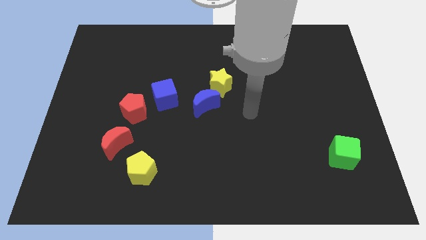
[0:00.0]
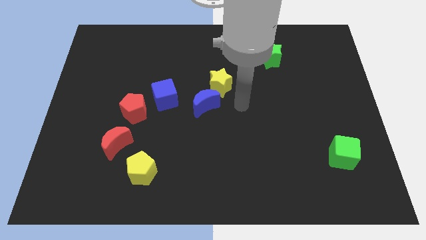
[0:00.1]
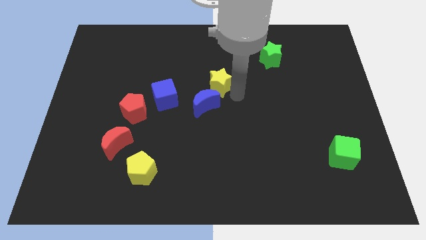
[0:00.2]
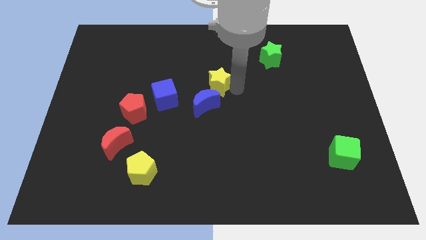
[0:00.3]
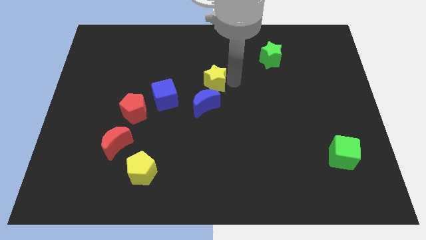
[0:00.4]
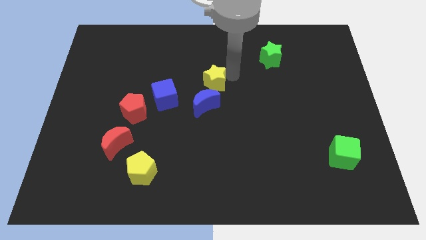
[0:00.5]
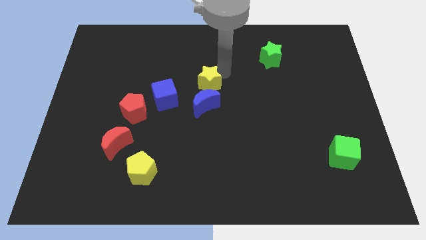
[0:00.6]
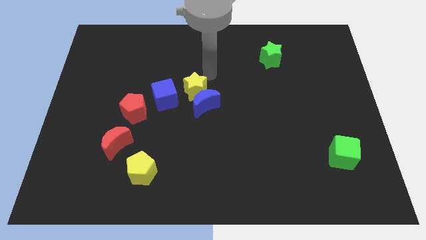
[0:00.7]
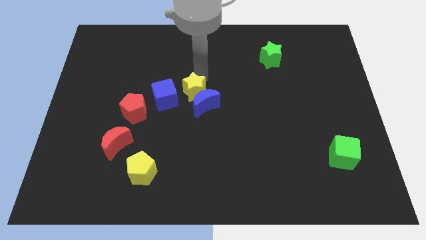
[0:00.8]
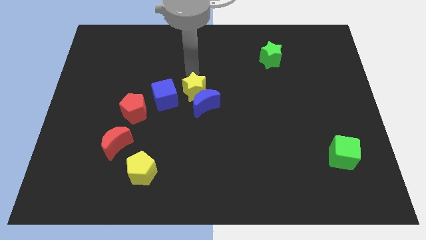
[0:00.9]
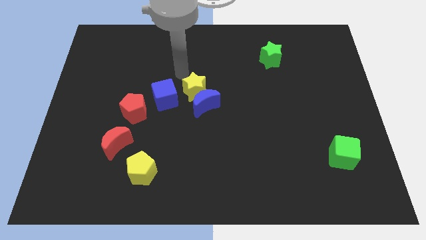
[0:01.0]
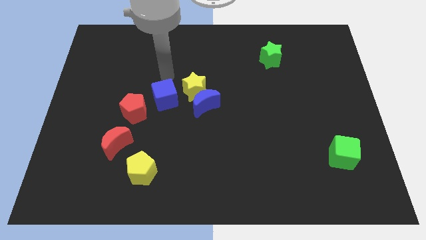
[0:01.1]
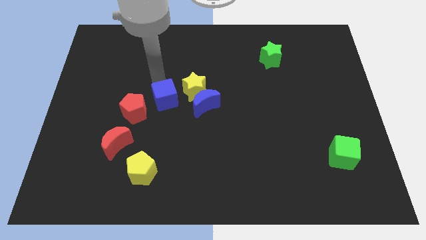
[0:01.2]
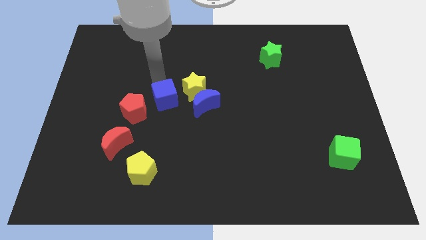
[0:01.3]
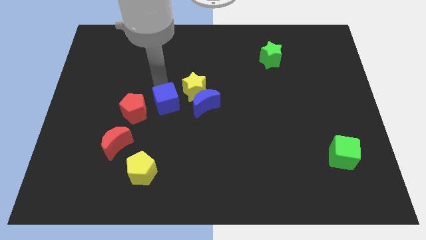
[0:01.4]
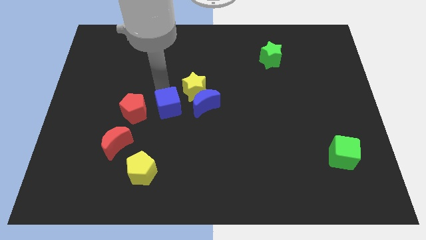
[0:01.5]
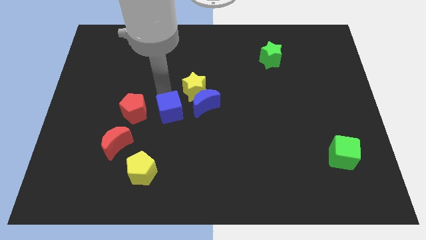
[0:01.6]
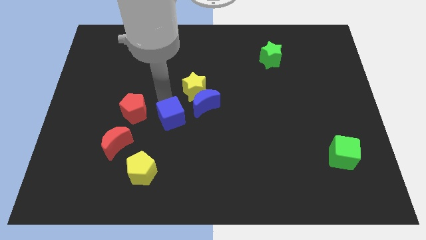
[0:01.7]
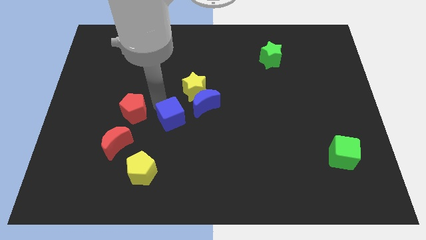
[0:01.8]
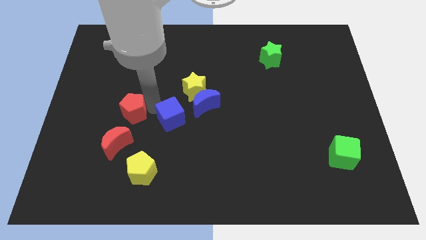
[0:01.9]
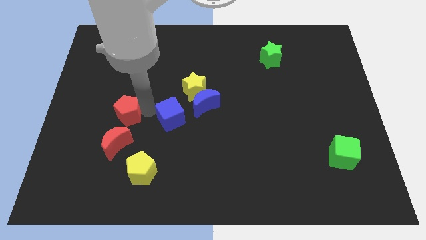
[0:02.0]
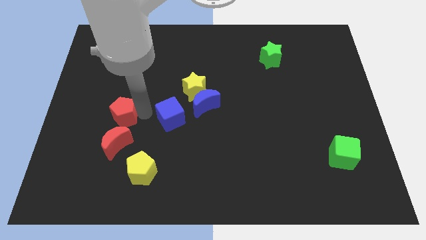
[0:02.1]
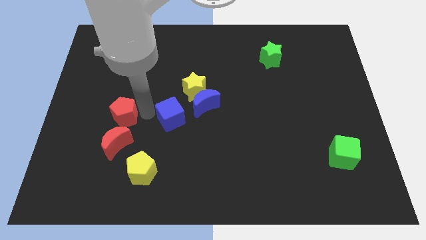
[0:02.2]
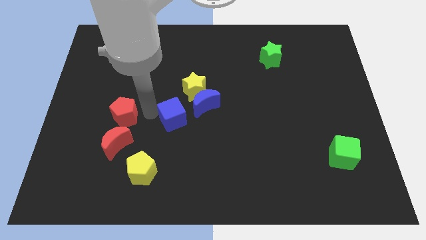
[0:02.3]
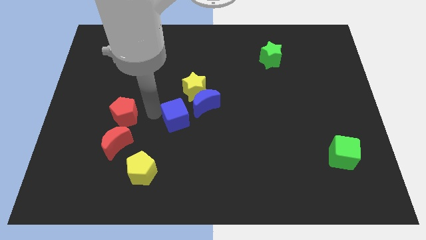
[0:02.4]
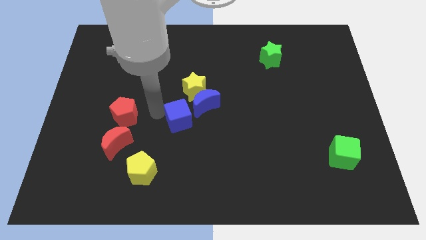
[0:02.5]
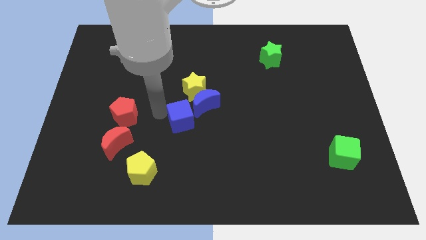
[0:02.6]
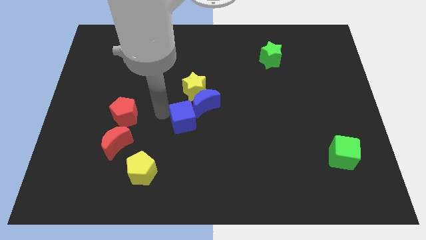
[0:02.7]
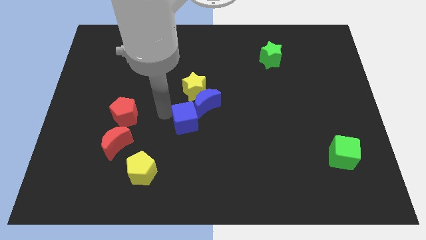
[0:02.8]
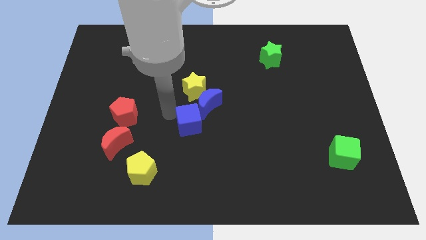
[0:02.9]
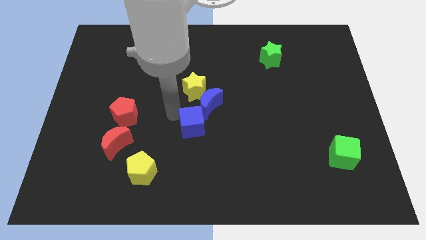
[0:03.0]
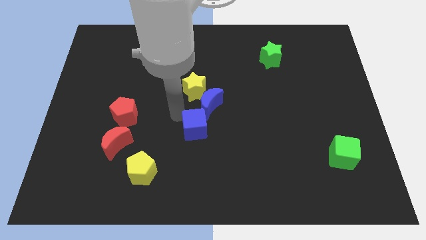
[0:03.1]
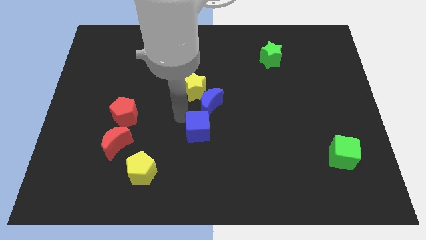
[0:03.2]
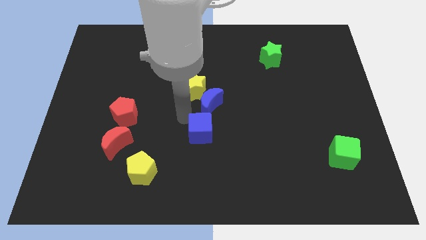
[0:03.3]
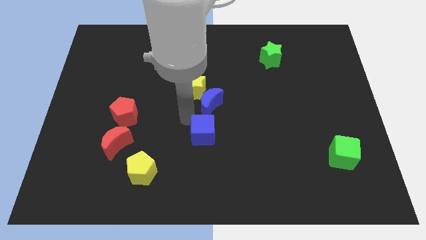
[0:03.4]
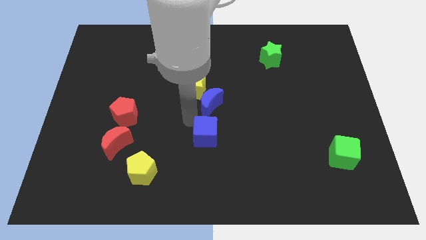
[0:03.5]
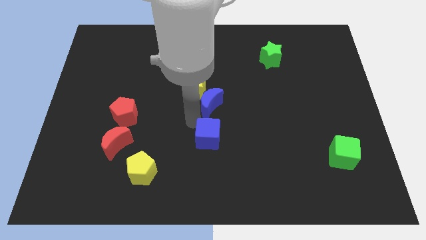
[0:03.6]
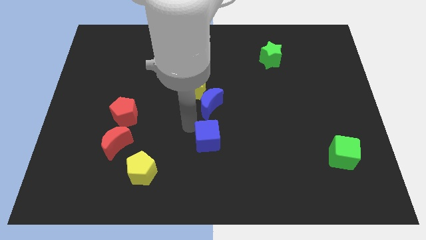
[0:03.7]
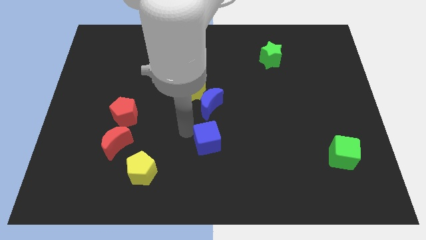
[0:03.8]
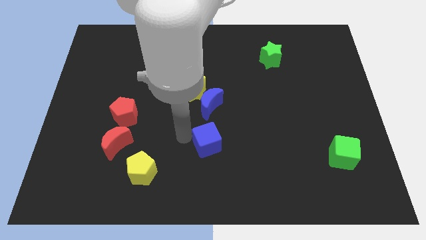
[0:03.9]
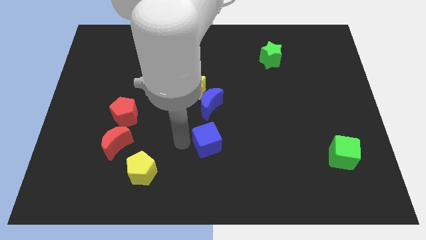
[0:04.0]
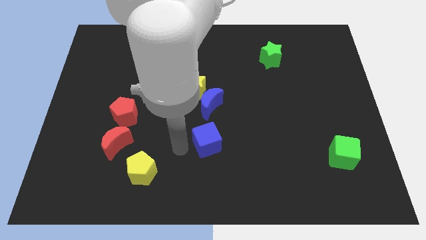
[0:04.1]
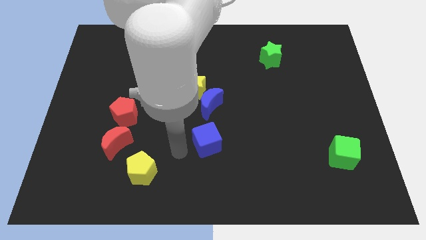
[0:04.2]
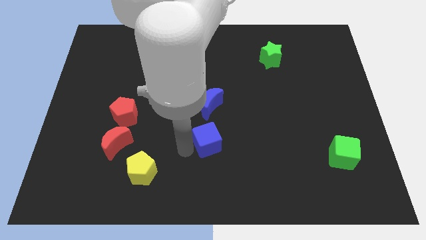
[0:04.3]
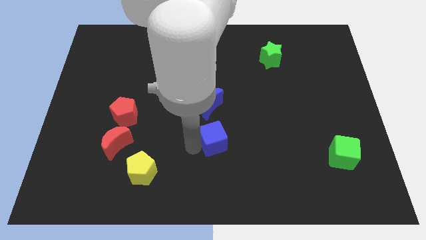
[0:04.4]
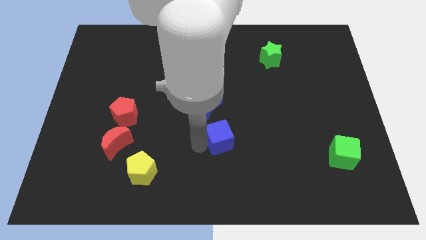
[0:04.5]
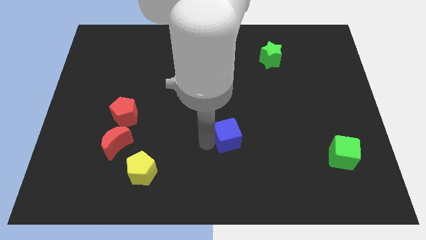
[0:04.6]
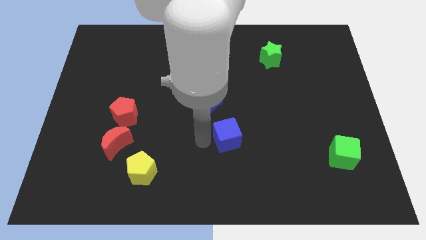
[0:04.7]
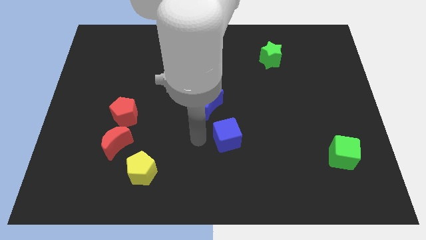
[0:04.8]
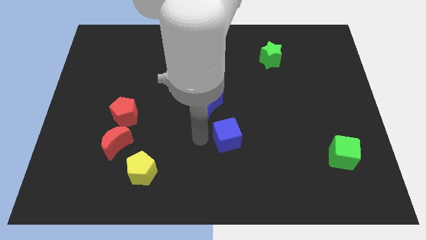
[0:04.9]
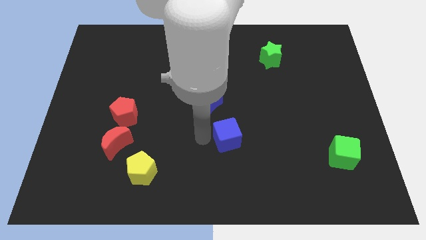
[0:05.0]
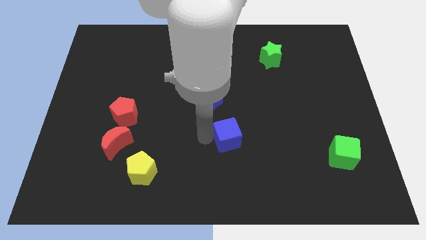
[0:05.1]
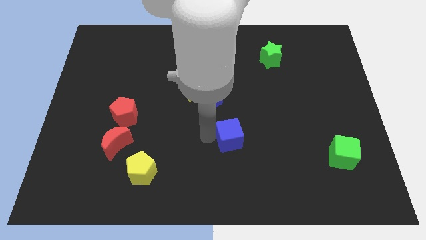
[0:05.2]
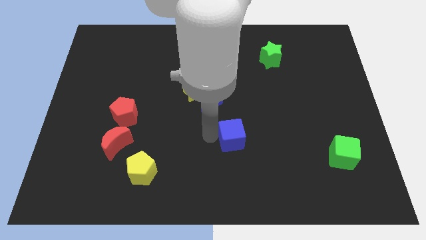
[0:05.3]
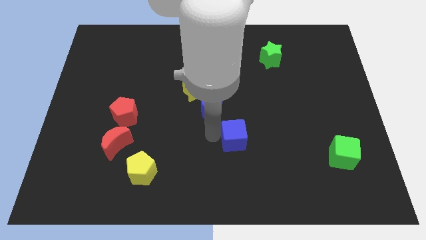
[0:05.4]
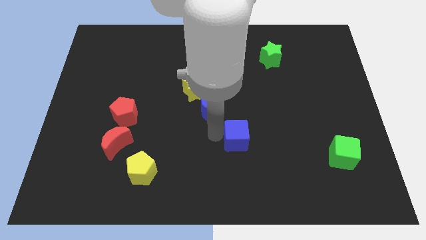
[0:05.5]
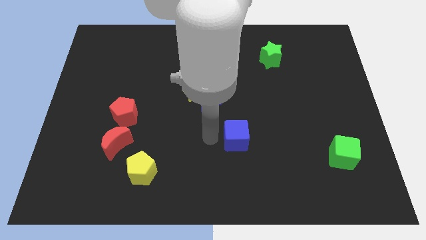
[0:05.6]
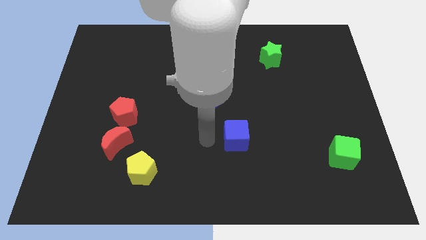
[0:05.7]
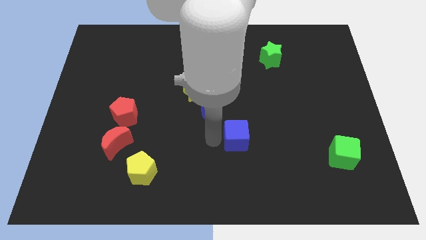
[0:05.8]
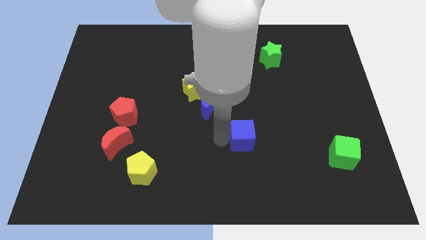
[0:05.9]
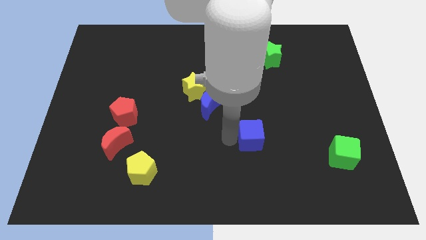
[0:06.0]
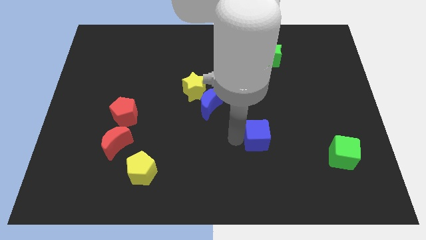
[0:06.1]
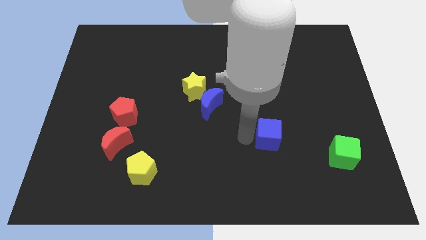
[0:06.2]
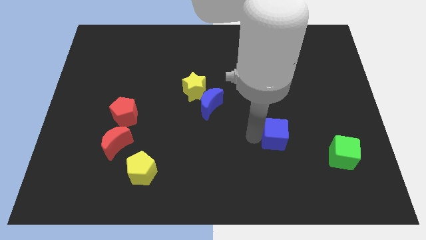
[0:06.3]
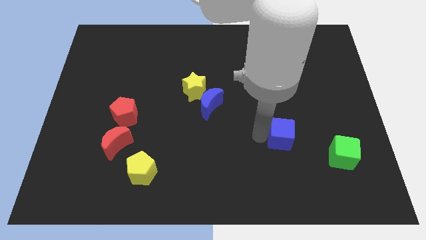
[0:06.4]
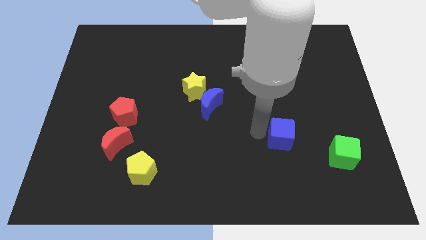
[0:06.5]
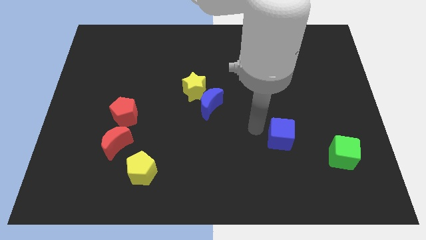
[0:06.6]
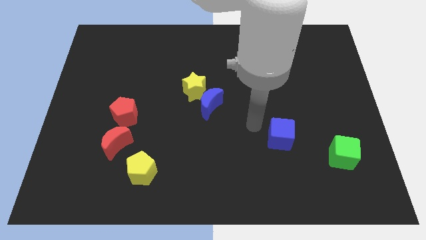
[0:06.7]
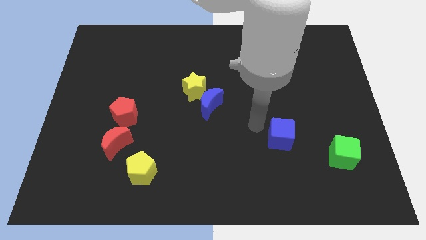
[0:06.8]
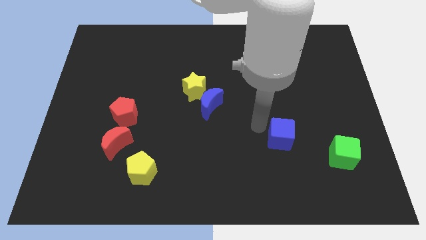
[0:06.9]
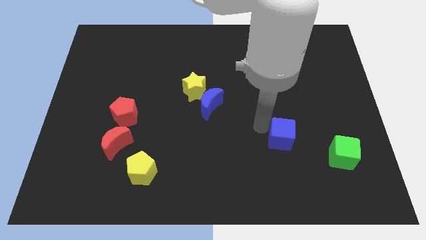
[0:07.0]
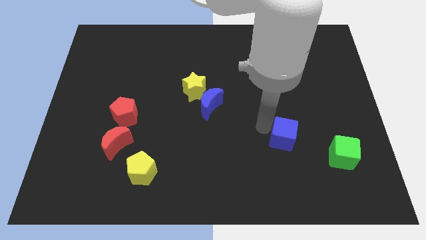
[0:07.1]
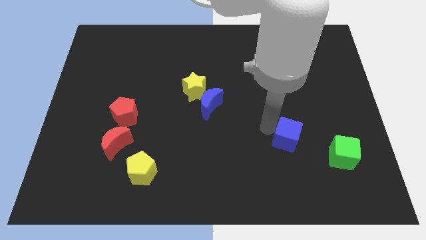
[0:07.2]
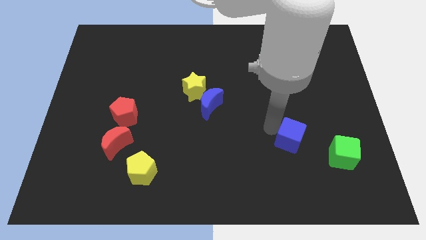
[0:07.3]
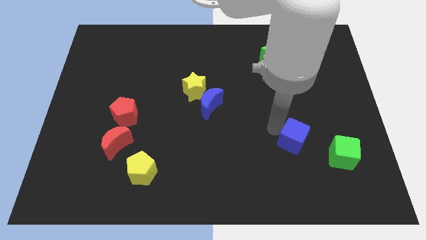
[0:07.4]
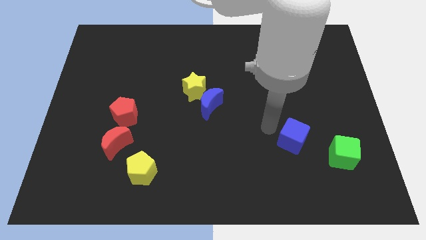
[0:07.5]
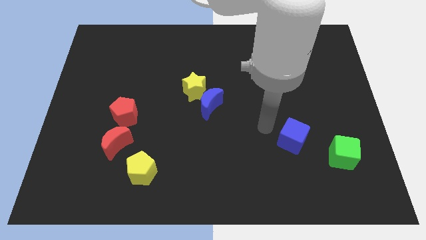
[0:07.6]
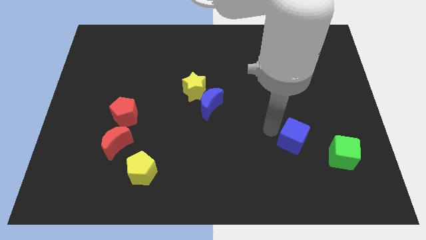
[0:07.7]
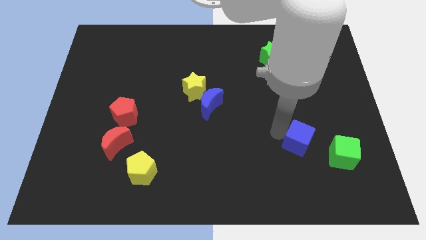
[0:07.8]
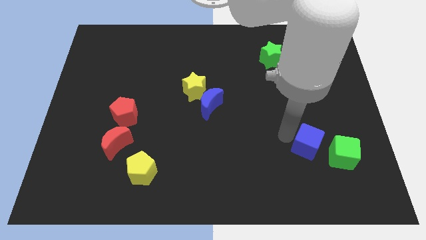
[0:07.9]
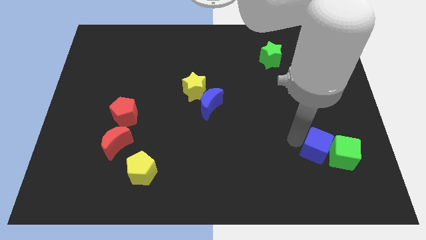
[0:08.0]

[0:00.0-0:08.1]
push the blue cube close to the green cube
